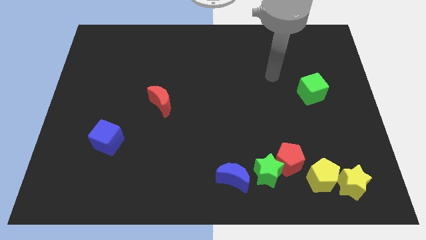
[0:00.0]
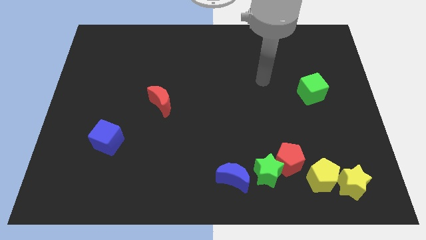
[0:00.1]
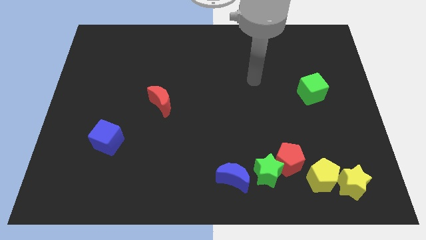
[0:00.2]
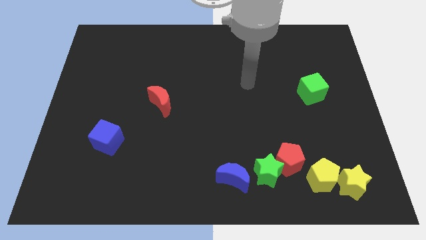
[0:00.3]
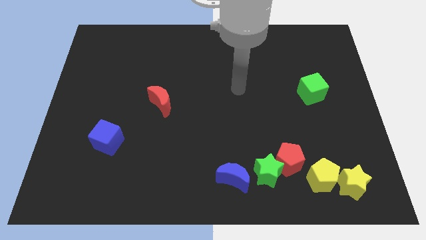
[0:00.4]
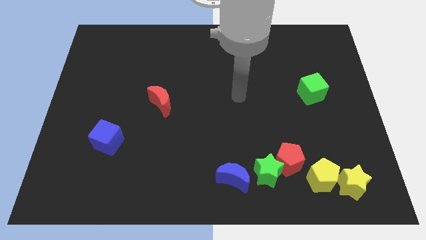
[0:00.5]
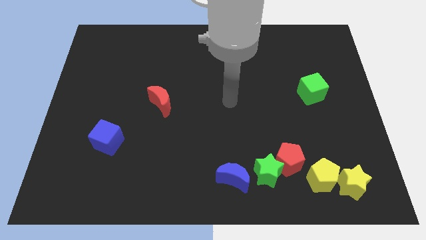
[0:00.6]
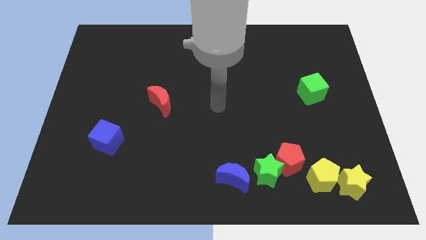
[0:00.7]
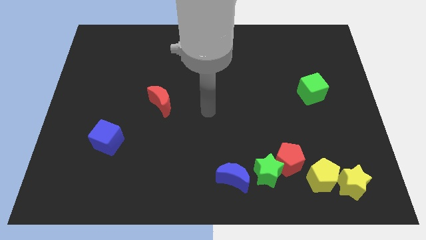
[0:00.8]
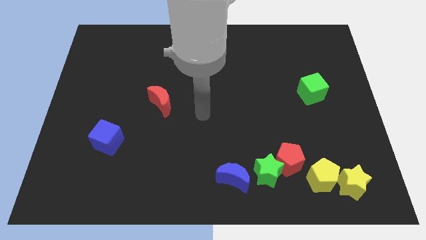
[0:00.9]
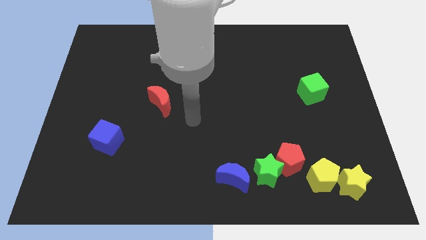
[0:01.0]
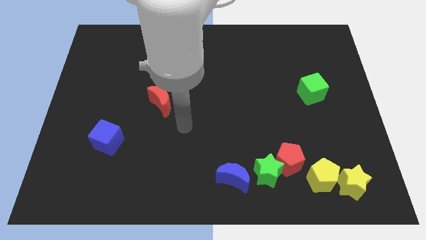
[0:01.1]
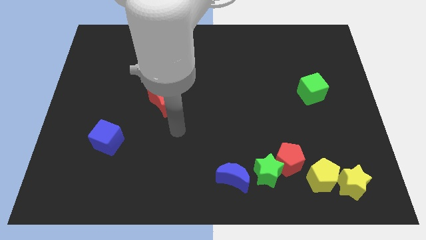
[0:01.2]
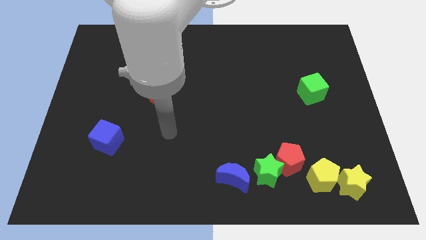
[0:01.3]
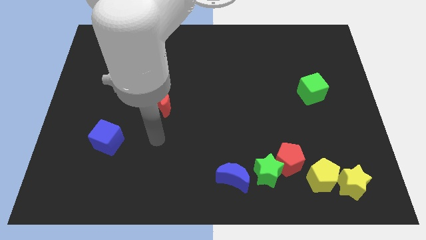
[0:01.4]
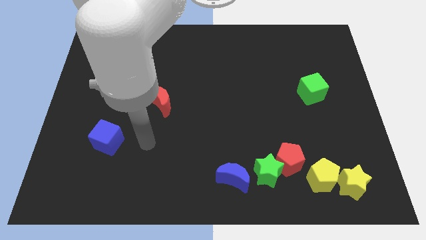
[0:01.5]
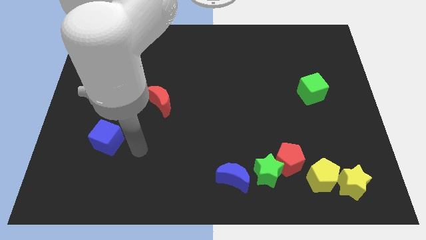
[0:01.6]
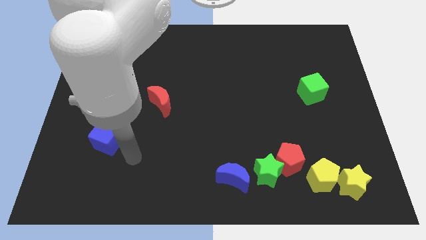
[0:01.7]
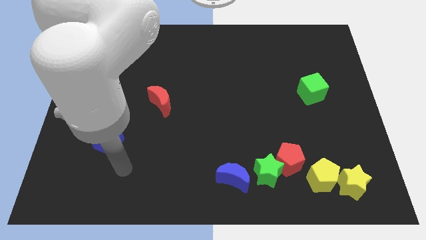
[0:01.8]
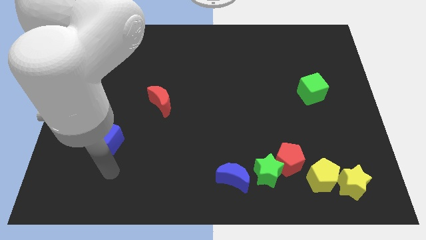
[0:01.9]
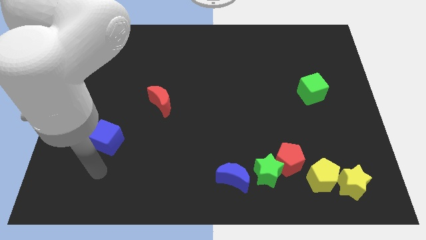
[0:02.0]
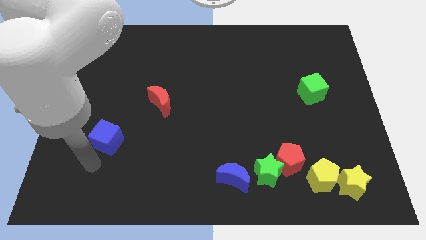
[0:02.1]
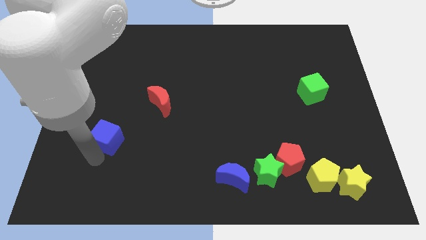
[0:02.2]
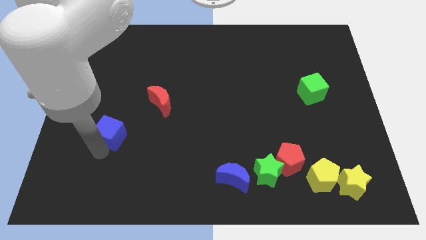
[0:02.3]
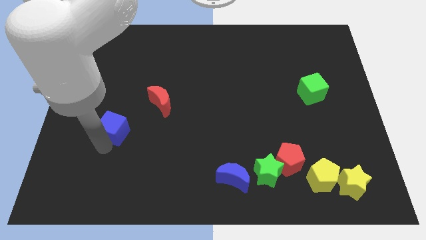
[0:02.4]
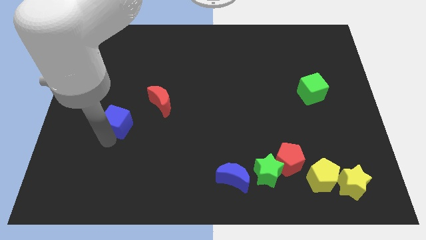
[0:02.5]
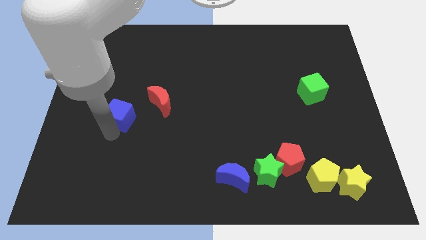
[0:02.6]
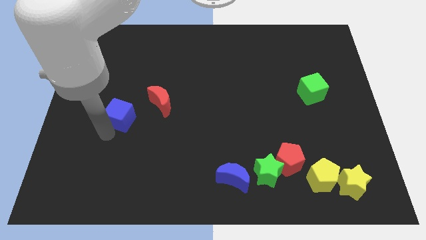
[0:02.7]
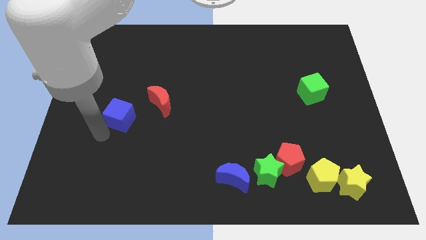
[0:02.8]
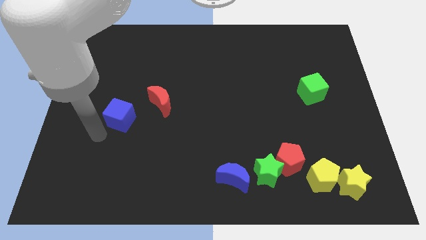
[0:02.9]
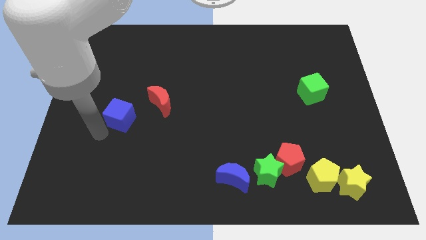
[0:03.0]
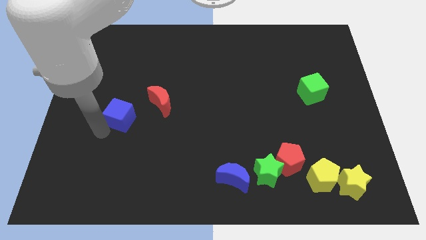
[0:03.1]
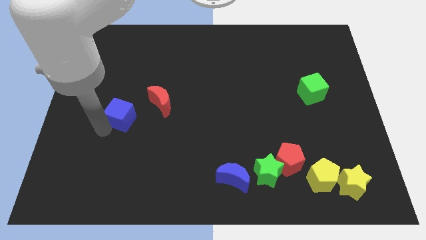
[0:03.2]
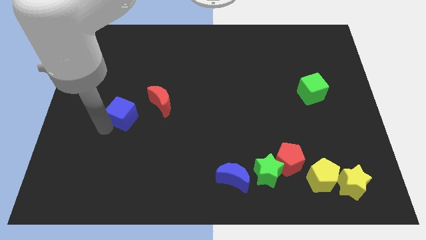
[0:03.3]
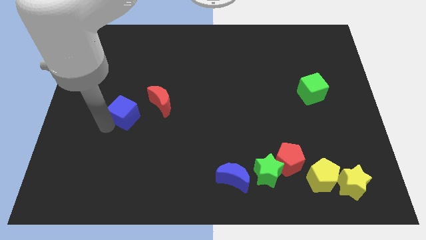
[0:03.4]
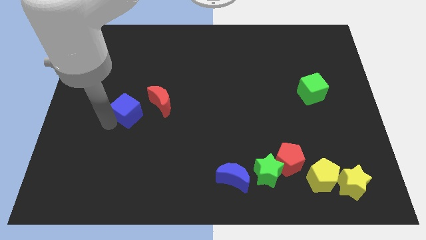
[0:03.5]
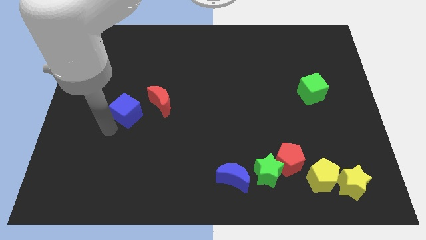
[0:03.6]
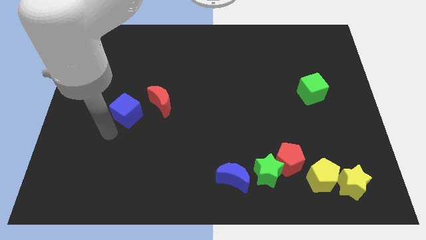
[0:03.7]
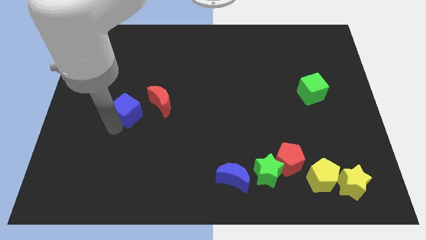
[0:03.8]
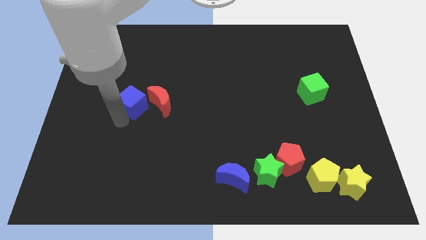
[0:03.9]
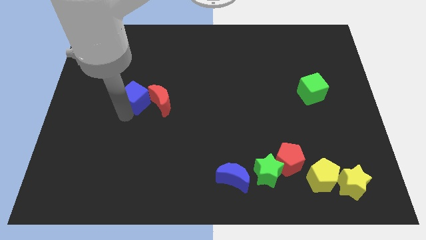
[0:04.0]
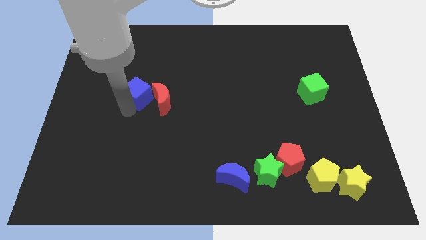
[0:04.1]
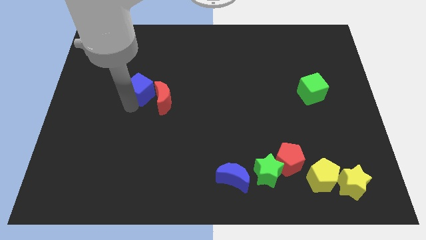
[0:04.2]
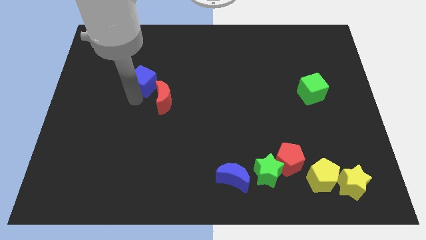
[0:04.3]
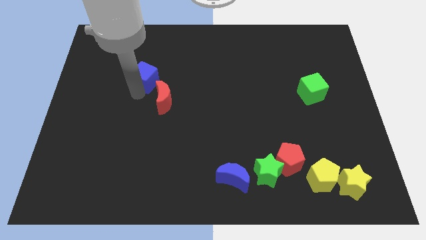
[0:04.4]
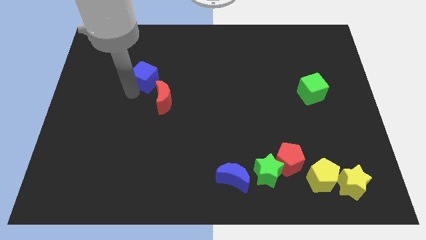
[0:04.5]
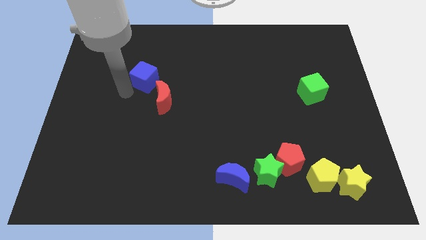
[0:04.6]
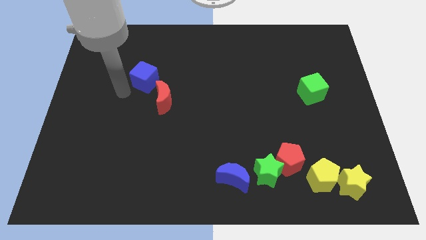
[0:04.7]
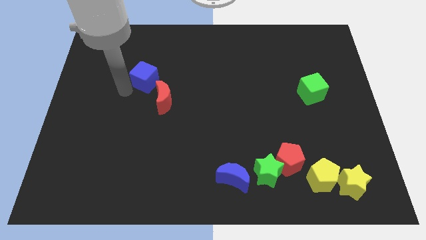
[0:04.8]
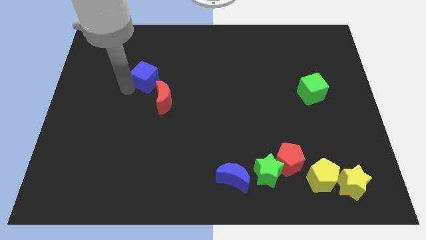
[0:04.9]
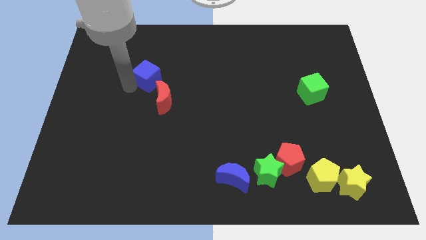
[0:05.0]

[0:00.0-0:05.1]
push the blue cube to the top side of the red moon

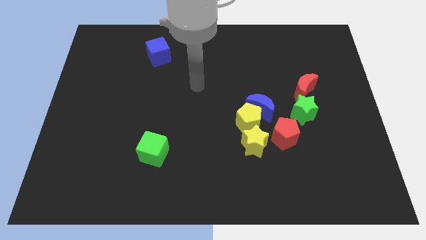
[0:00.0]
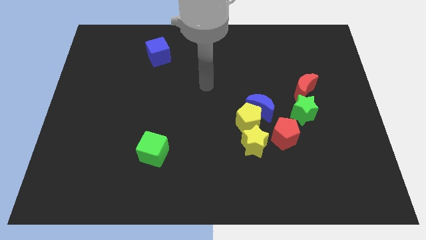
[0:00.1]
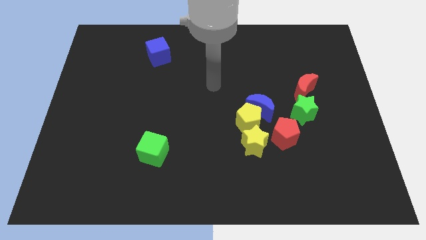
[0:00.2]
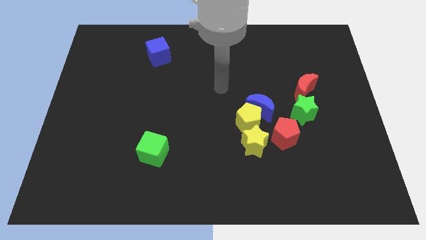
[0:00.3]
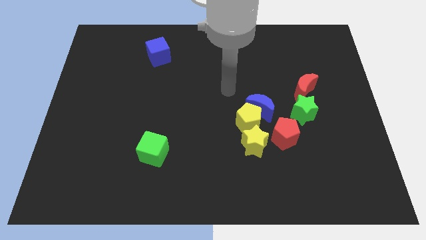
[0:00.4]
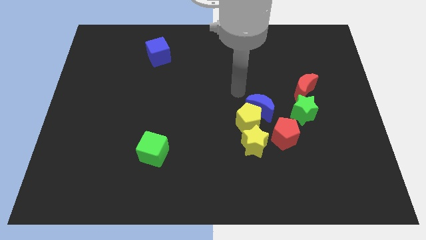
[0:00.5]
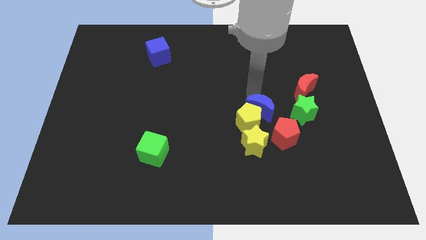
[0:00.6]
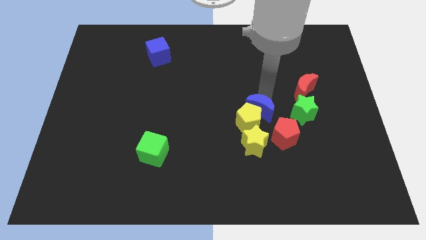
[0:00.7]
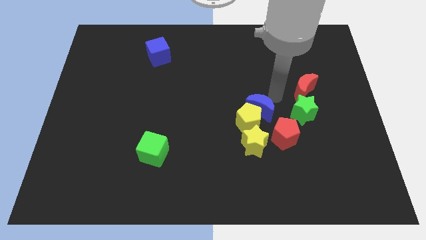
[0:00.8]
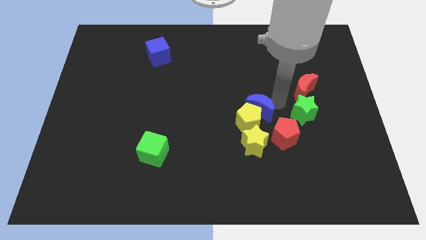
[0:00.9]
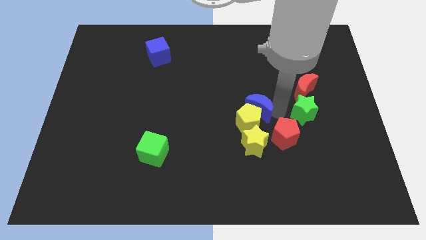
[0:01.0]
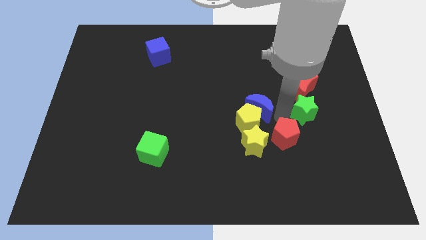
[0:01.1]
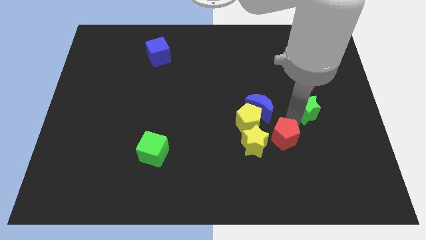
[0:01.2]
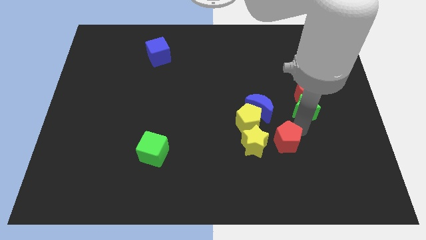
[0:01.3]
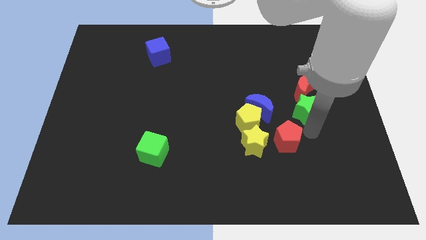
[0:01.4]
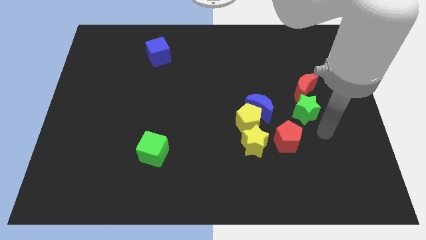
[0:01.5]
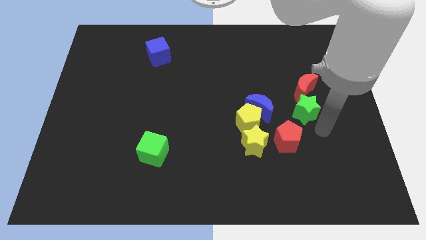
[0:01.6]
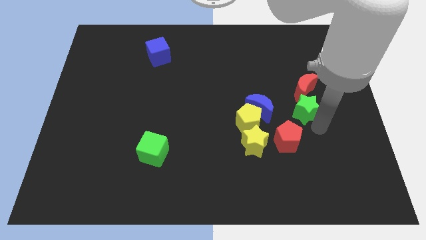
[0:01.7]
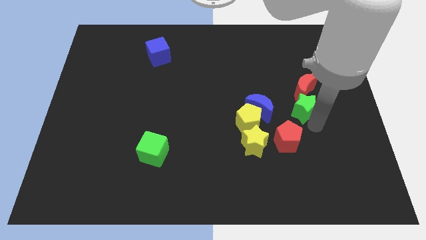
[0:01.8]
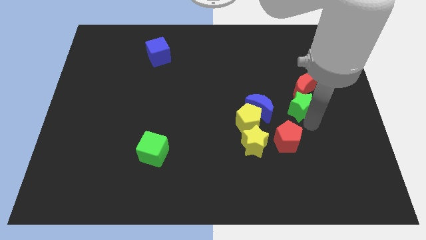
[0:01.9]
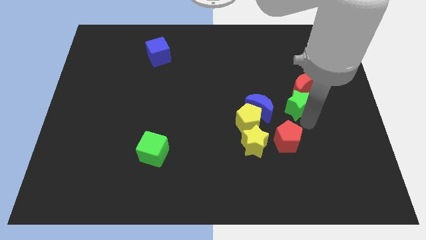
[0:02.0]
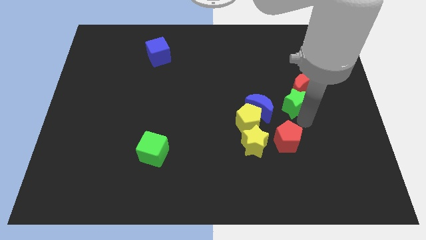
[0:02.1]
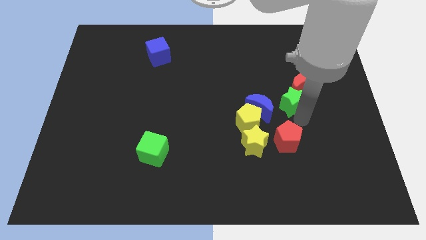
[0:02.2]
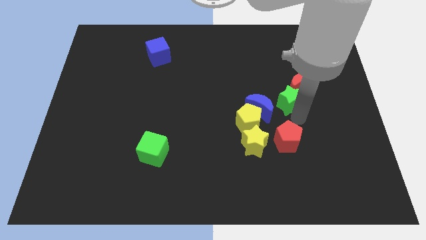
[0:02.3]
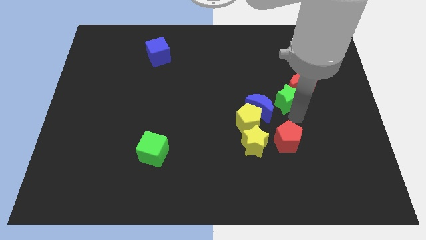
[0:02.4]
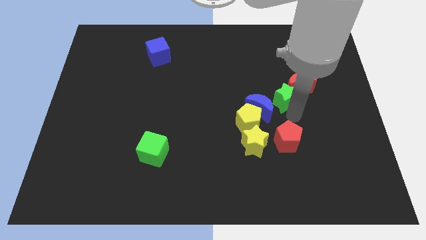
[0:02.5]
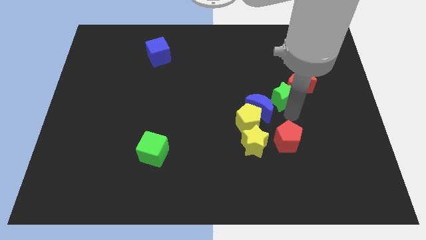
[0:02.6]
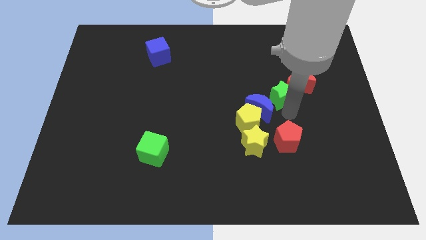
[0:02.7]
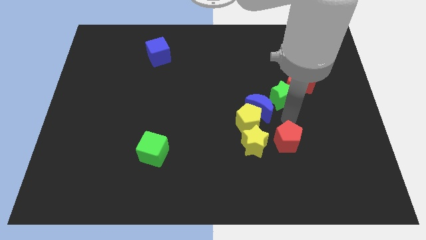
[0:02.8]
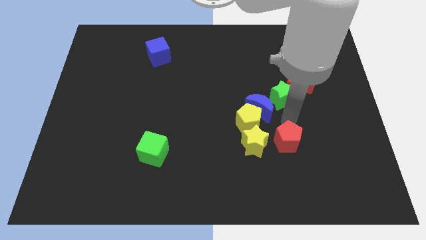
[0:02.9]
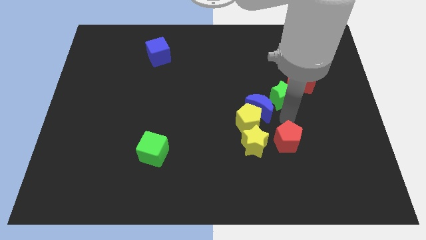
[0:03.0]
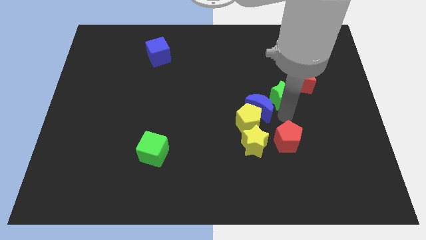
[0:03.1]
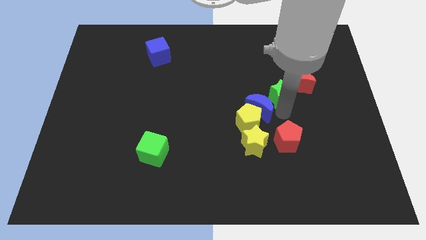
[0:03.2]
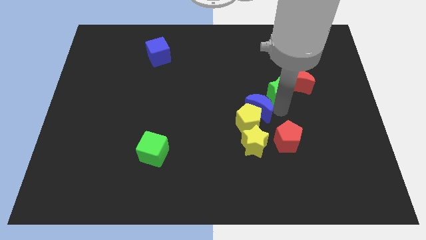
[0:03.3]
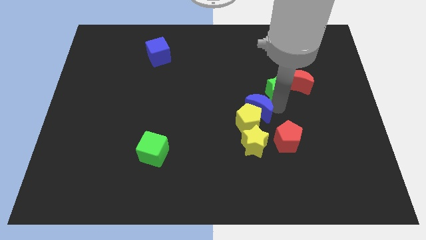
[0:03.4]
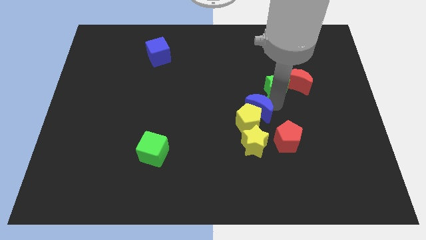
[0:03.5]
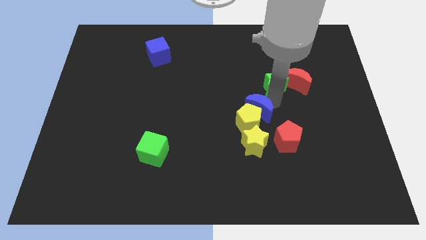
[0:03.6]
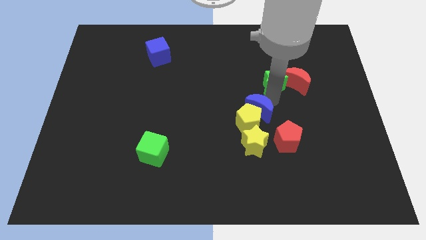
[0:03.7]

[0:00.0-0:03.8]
push the green star to the top left of the red moon
